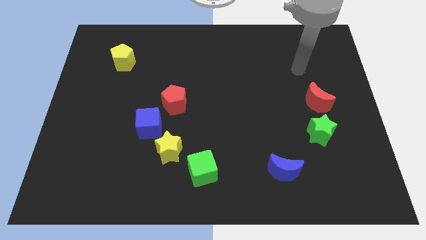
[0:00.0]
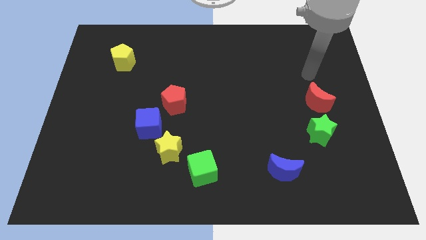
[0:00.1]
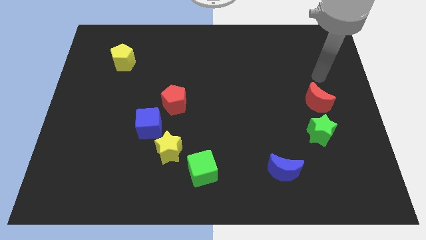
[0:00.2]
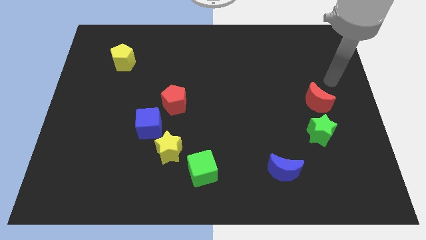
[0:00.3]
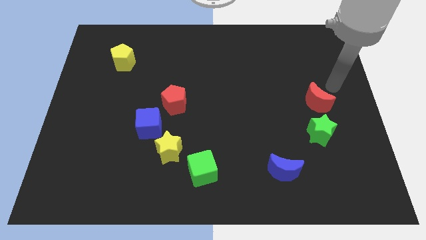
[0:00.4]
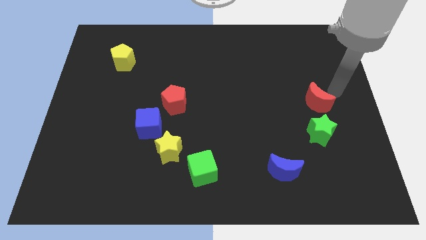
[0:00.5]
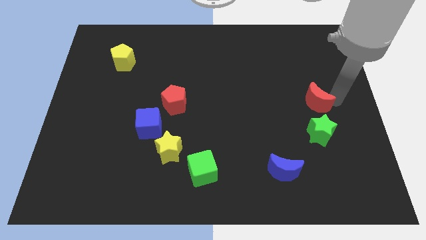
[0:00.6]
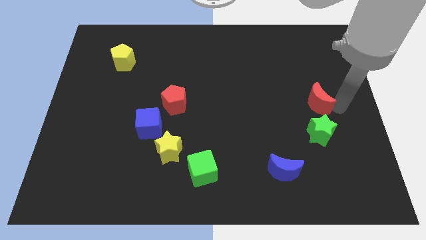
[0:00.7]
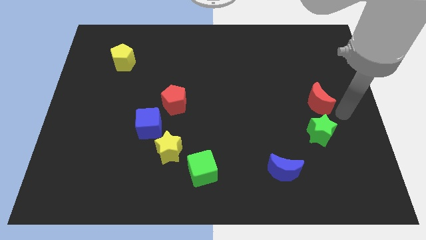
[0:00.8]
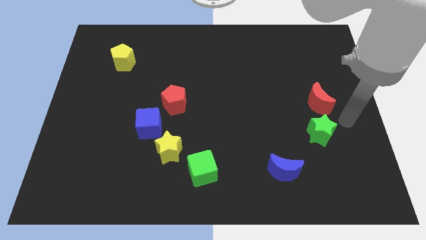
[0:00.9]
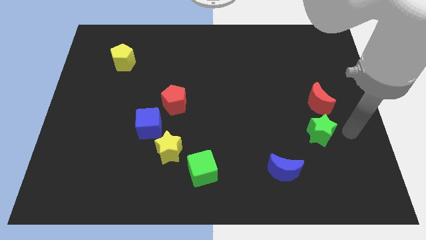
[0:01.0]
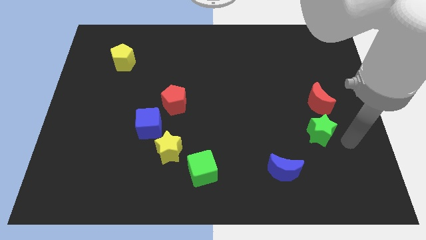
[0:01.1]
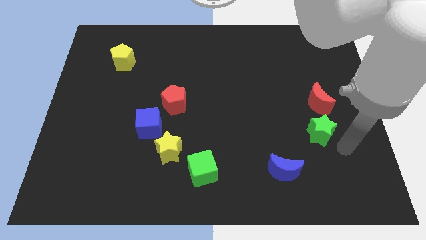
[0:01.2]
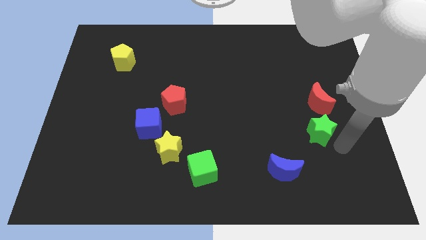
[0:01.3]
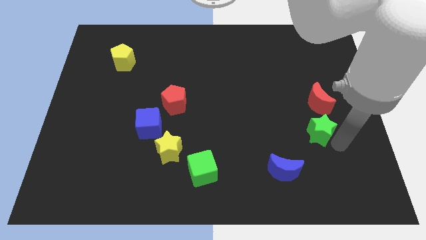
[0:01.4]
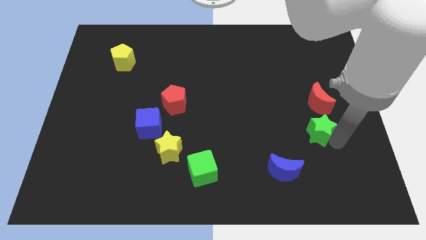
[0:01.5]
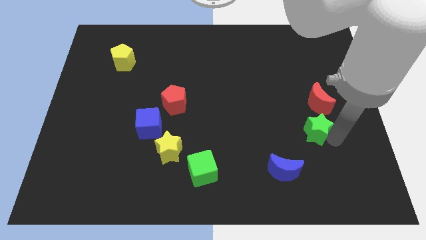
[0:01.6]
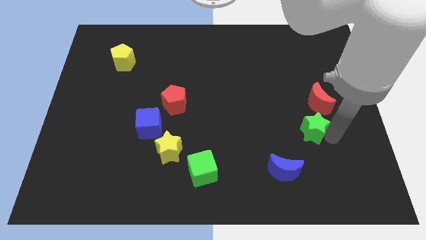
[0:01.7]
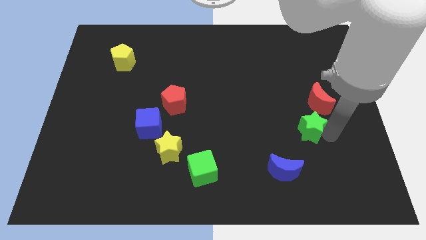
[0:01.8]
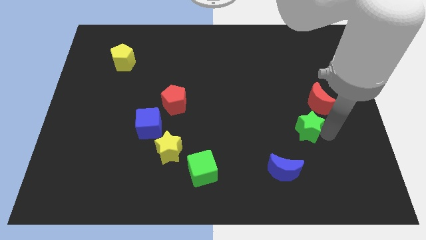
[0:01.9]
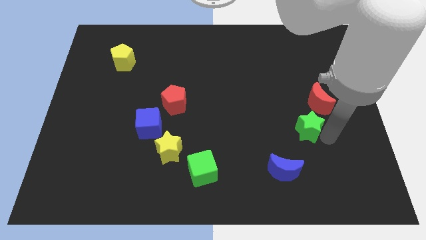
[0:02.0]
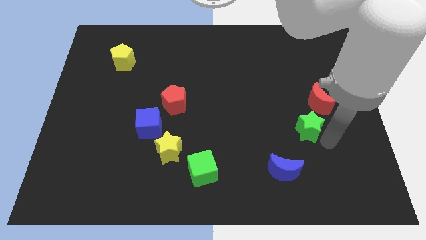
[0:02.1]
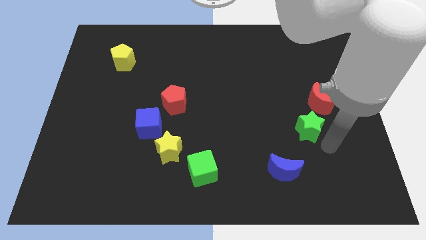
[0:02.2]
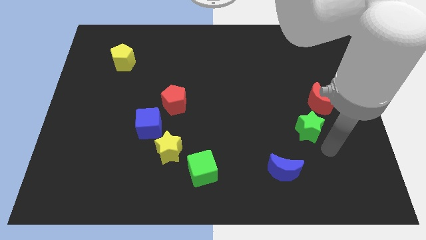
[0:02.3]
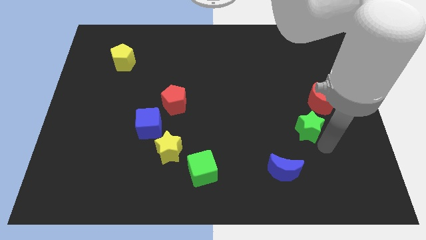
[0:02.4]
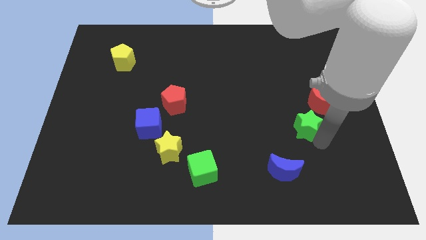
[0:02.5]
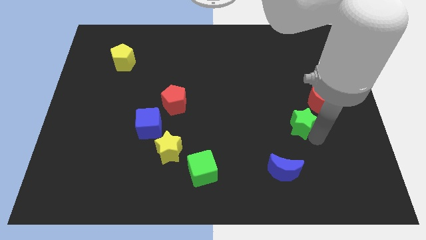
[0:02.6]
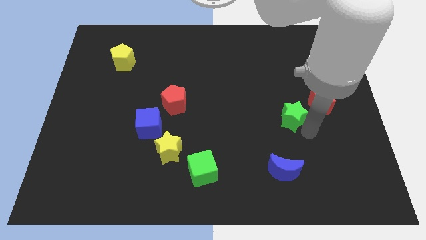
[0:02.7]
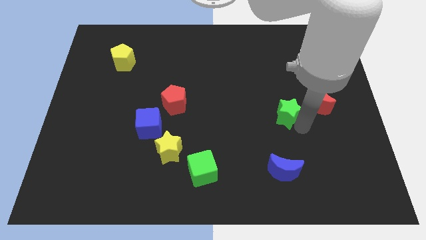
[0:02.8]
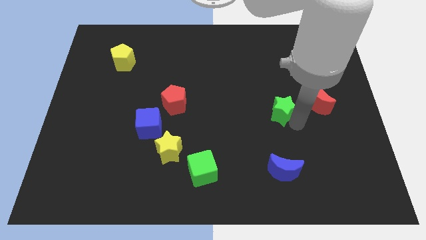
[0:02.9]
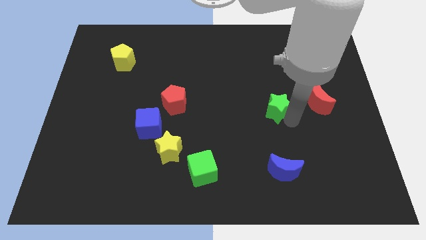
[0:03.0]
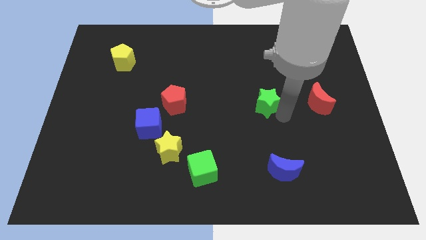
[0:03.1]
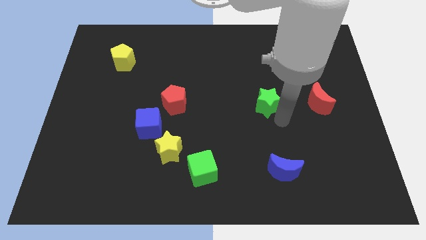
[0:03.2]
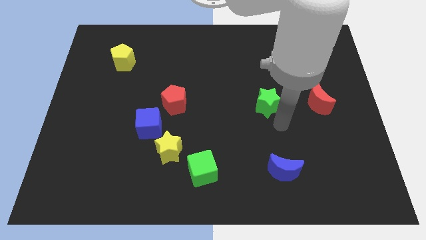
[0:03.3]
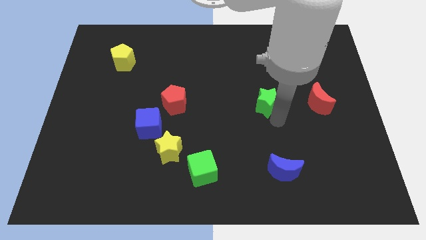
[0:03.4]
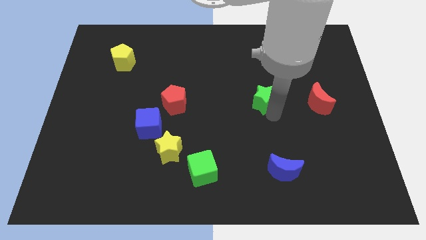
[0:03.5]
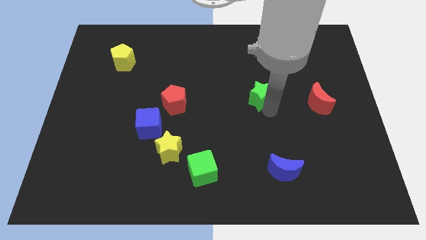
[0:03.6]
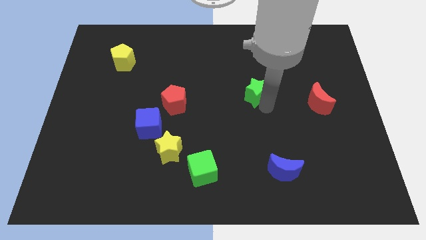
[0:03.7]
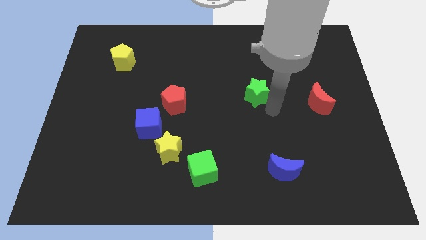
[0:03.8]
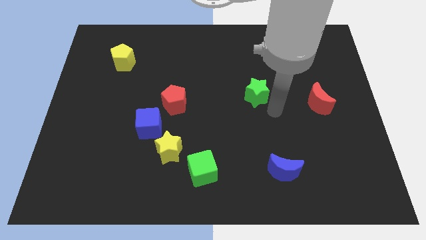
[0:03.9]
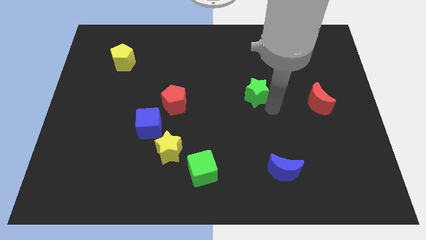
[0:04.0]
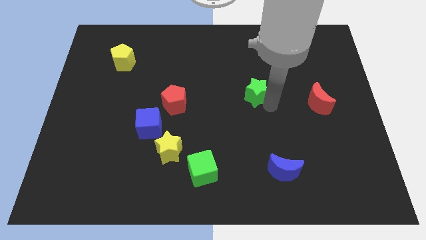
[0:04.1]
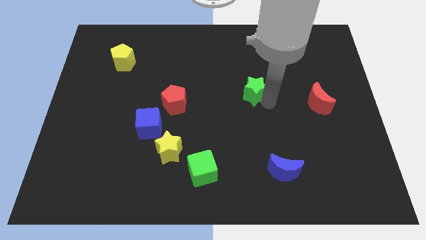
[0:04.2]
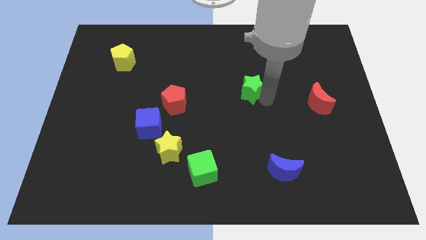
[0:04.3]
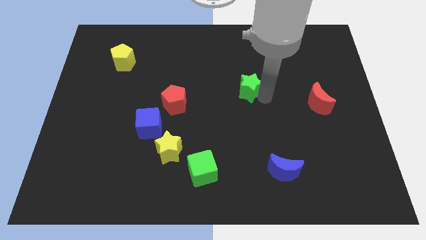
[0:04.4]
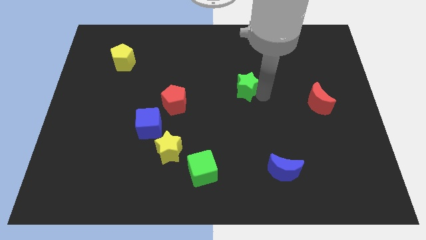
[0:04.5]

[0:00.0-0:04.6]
move the green star upwards and left

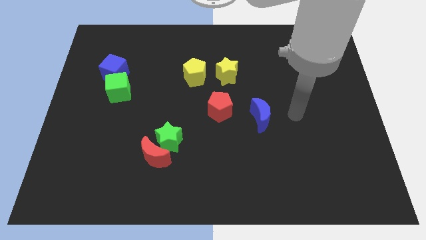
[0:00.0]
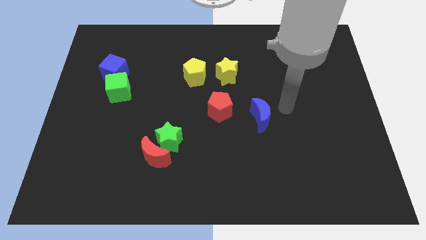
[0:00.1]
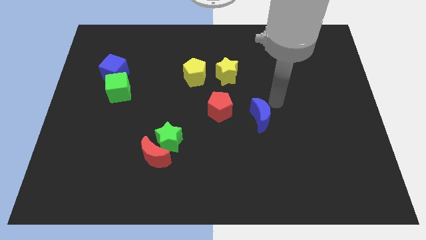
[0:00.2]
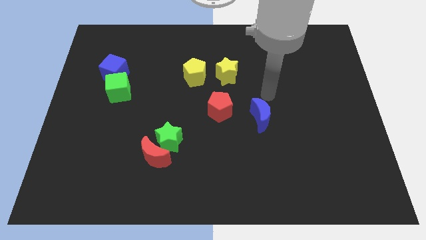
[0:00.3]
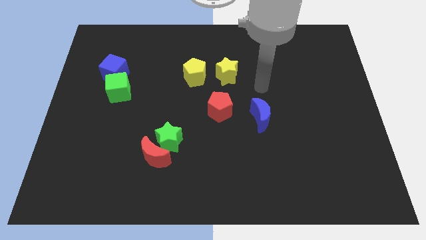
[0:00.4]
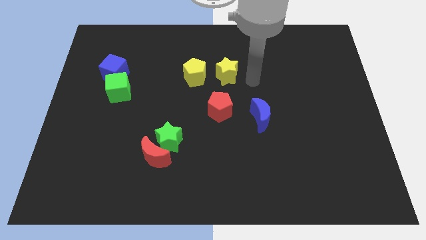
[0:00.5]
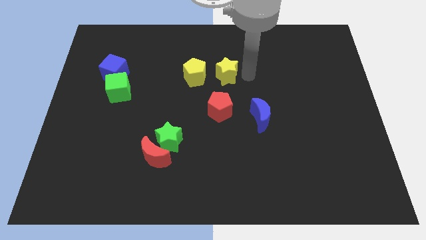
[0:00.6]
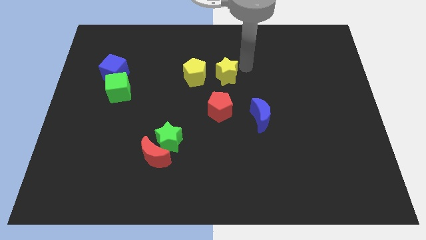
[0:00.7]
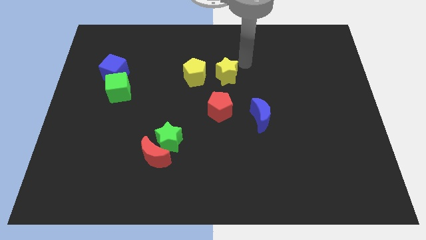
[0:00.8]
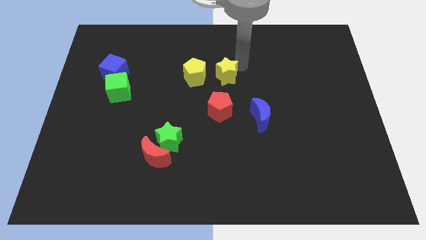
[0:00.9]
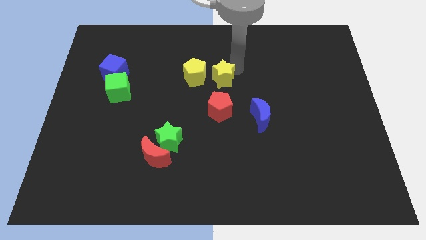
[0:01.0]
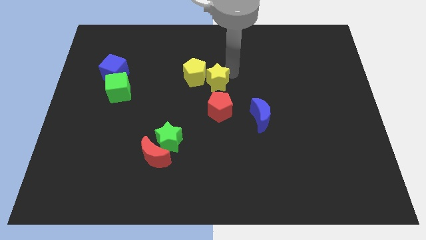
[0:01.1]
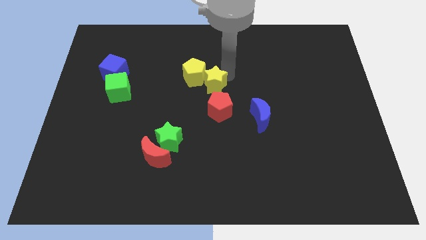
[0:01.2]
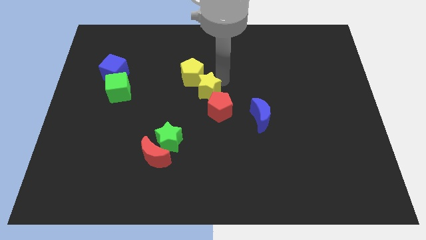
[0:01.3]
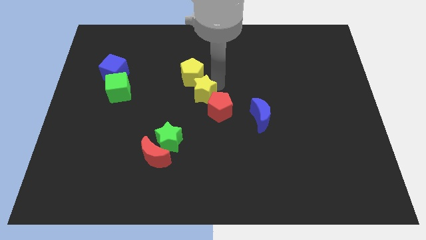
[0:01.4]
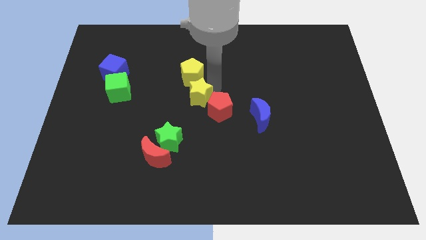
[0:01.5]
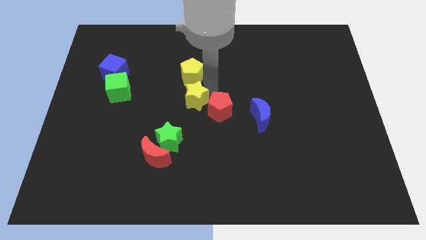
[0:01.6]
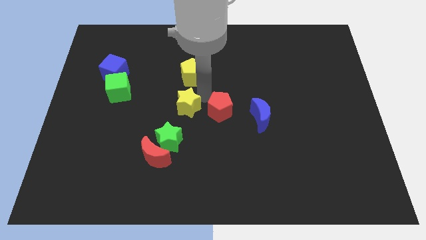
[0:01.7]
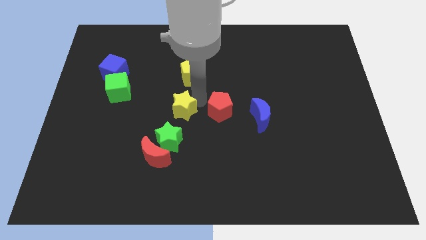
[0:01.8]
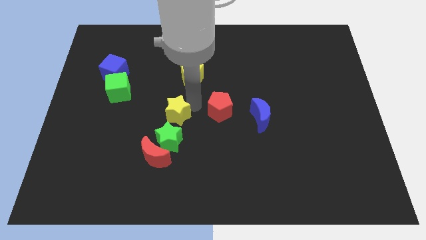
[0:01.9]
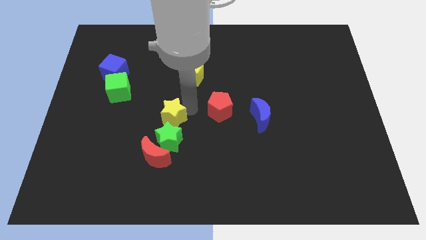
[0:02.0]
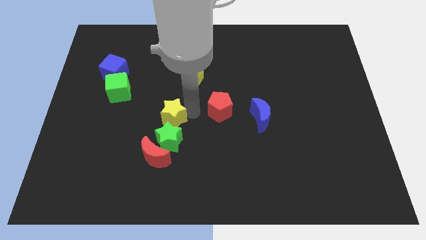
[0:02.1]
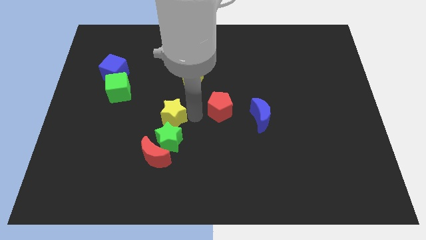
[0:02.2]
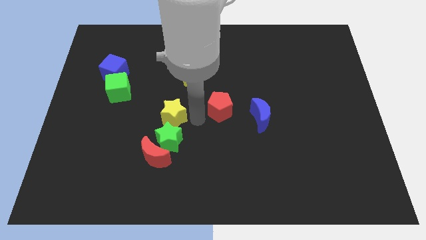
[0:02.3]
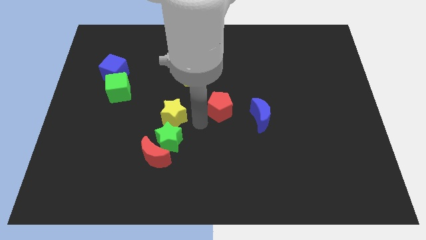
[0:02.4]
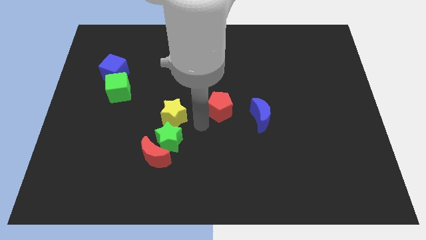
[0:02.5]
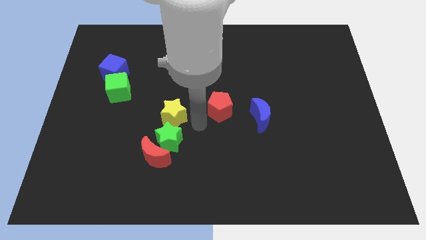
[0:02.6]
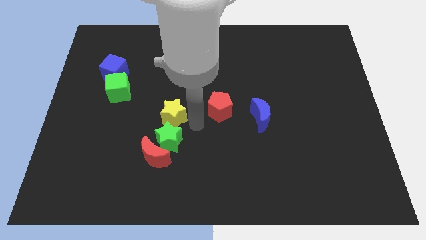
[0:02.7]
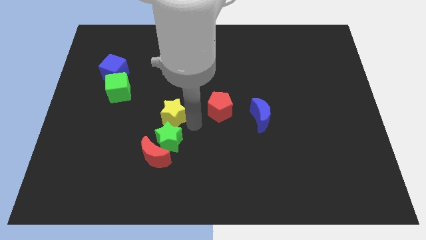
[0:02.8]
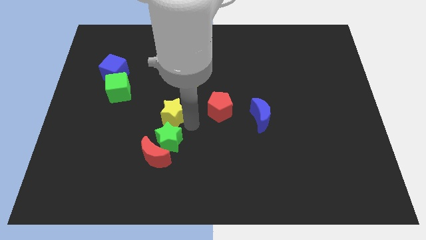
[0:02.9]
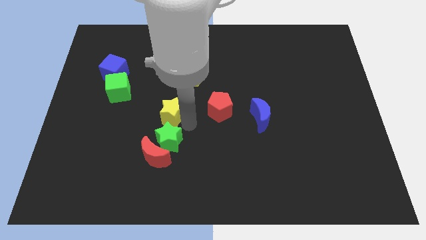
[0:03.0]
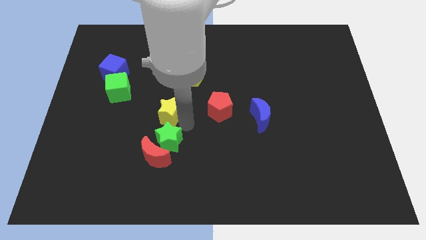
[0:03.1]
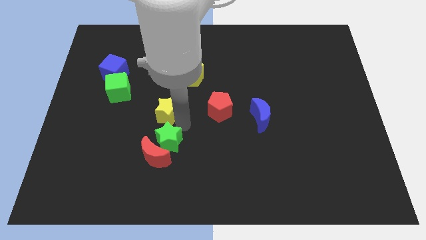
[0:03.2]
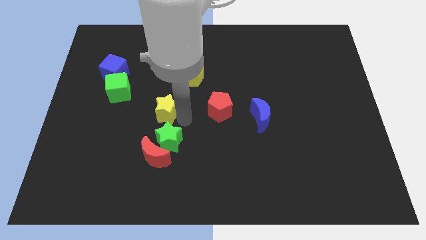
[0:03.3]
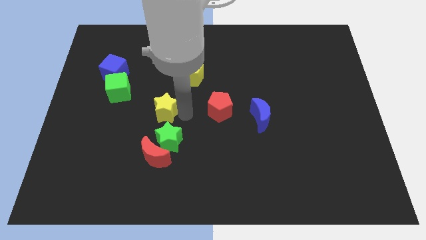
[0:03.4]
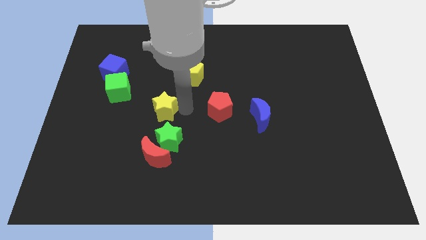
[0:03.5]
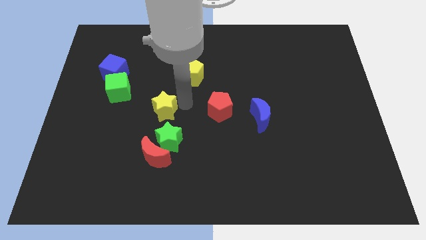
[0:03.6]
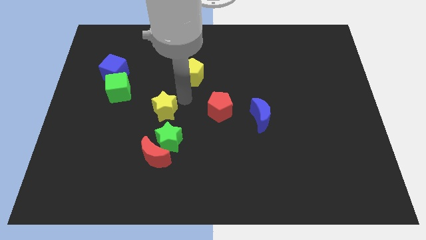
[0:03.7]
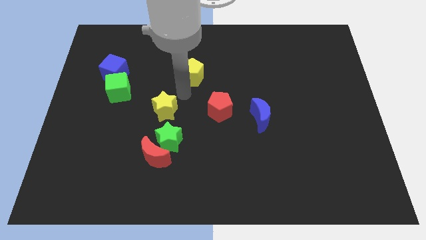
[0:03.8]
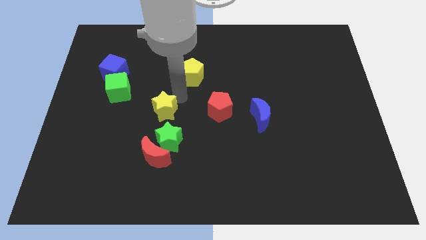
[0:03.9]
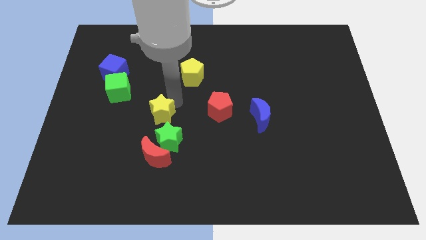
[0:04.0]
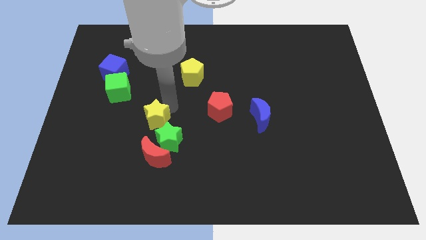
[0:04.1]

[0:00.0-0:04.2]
move the yellow star down and then to the left
